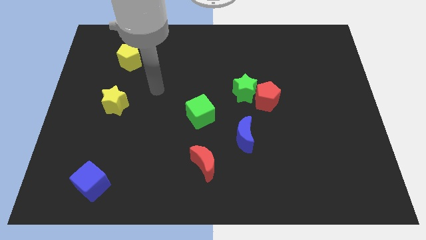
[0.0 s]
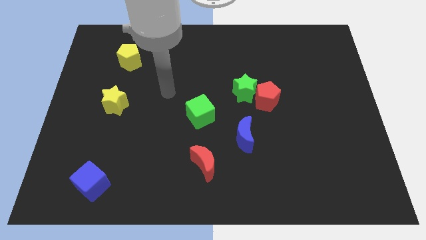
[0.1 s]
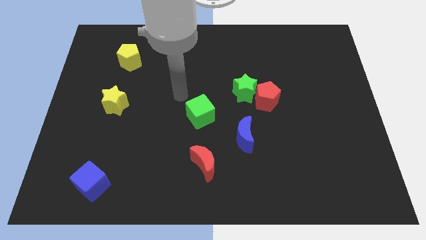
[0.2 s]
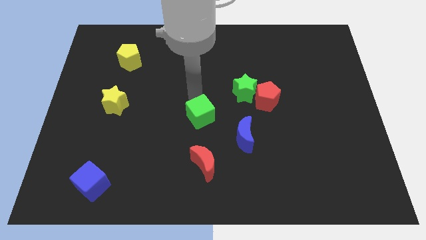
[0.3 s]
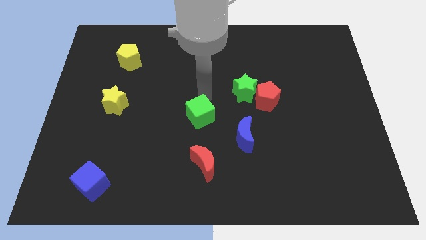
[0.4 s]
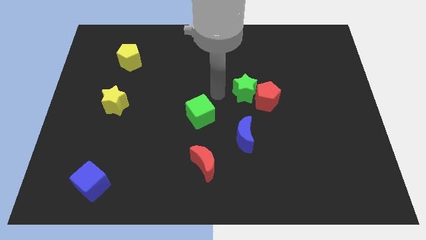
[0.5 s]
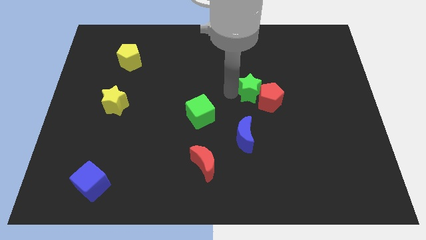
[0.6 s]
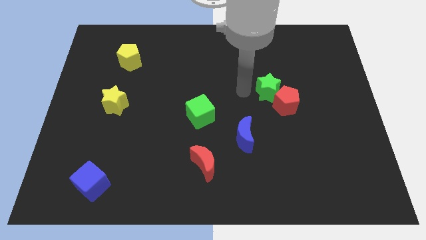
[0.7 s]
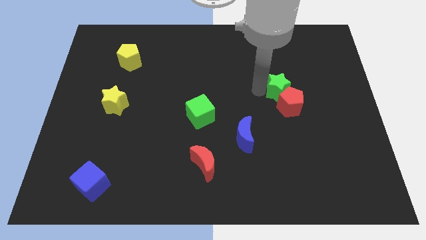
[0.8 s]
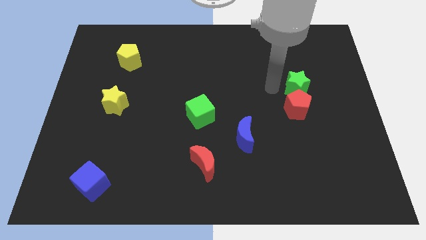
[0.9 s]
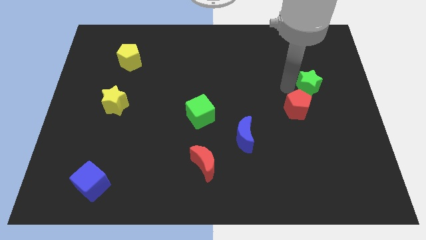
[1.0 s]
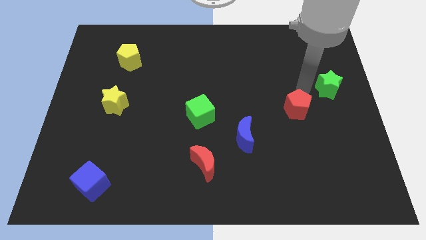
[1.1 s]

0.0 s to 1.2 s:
pull the red pentagon apart from the green star

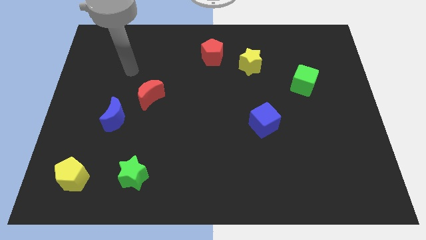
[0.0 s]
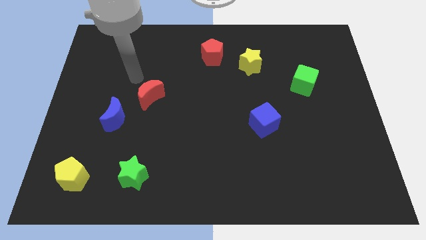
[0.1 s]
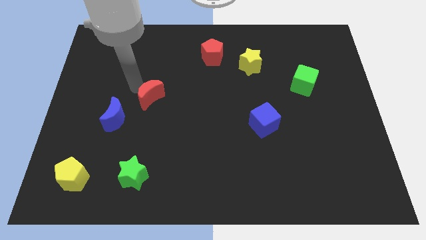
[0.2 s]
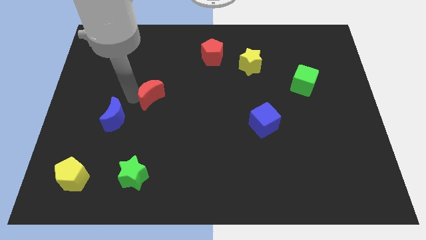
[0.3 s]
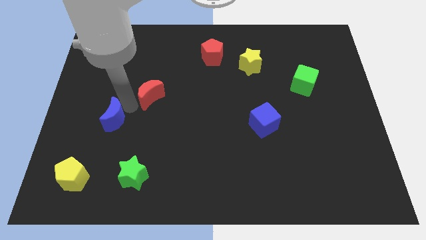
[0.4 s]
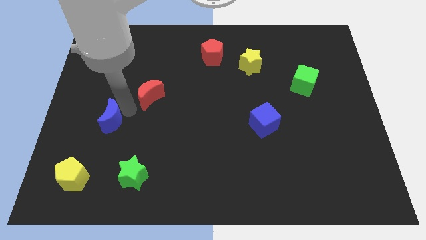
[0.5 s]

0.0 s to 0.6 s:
move the red moon away from the blue moon

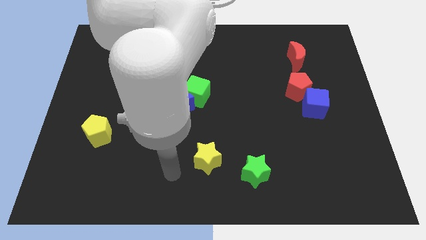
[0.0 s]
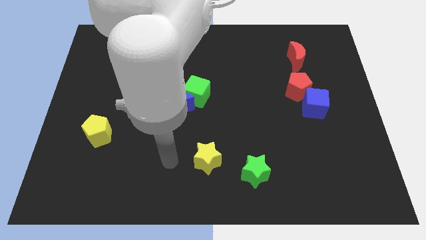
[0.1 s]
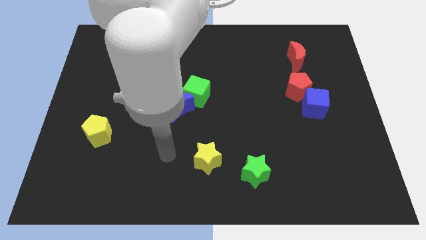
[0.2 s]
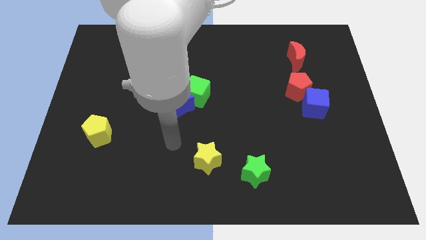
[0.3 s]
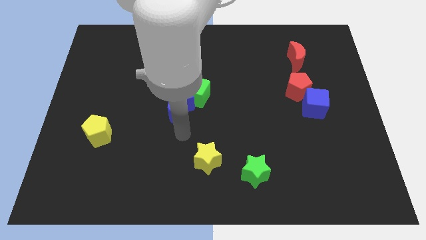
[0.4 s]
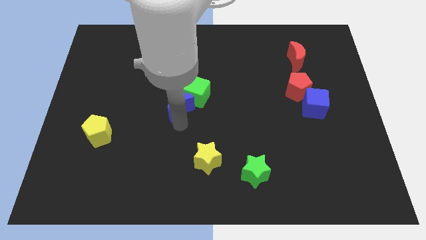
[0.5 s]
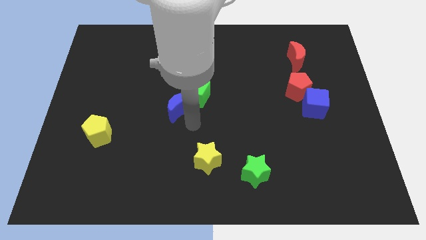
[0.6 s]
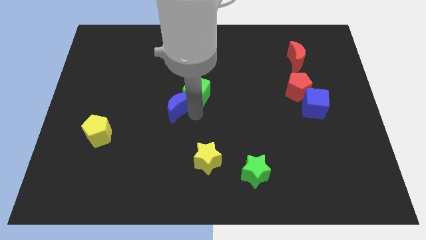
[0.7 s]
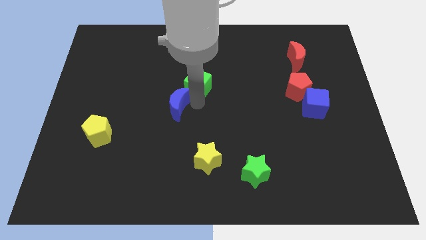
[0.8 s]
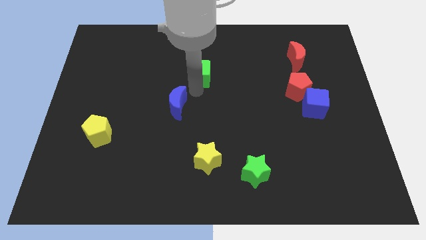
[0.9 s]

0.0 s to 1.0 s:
move the blue moon away from the green cube

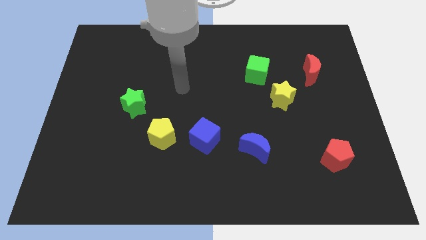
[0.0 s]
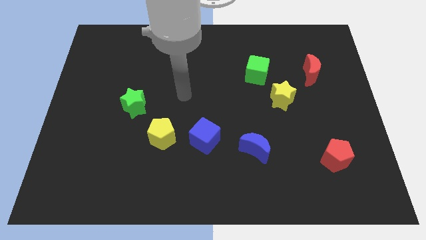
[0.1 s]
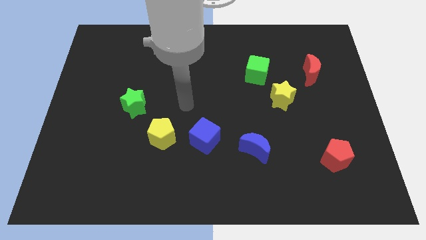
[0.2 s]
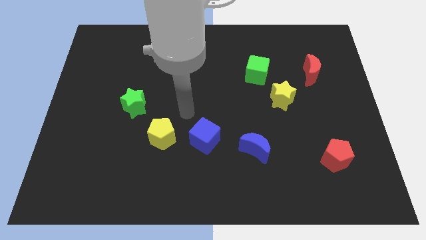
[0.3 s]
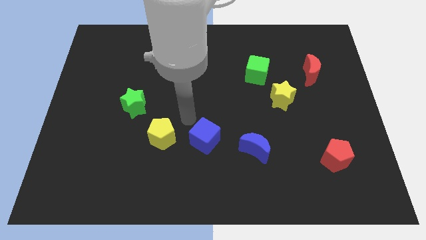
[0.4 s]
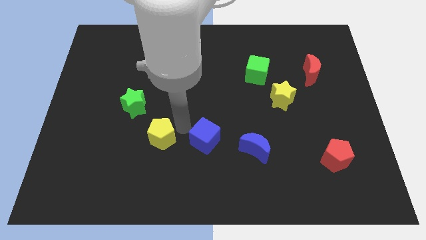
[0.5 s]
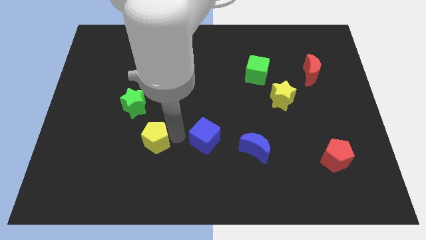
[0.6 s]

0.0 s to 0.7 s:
separate the blue cube from the yellow pentagon

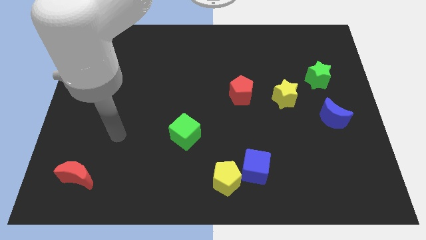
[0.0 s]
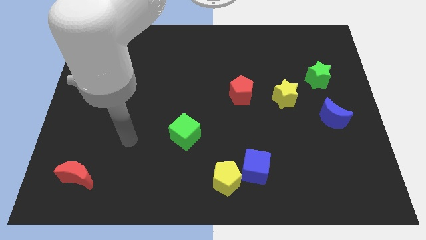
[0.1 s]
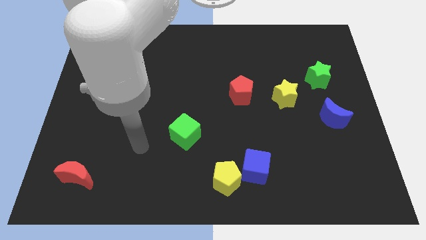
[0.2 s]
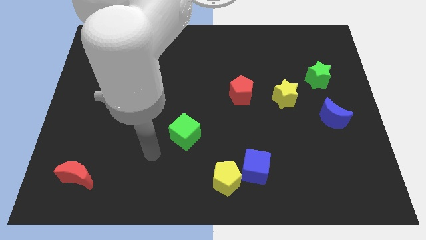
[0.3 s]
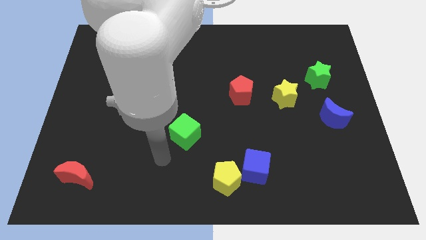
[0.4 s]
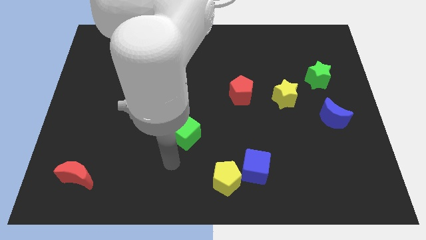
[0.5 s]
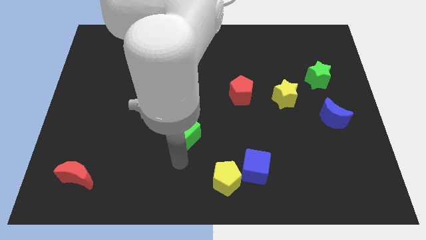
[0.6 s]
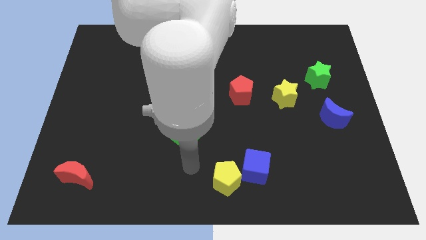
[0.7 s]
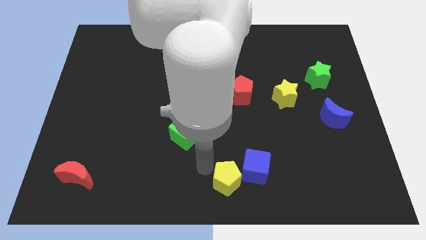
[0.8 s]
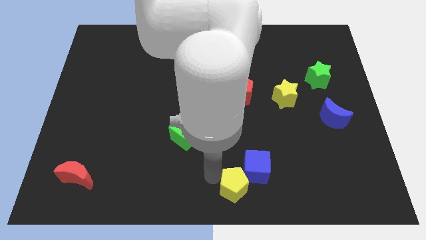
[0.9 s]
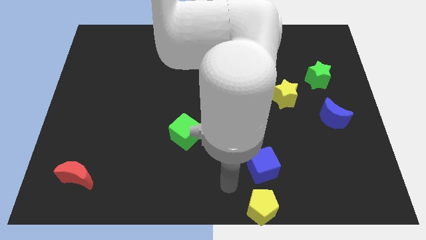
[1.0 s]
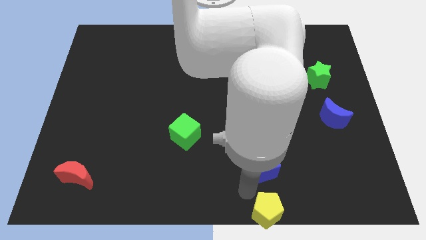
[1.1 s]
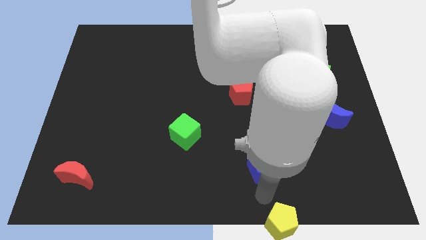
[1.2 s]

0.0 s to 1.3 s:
move the blue cube away from the yellow pentagon

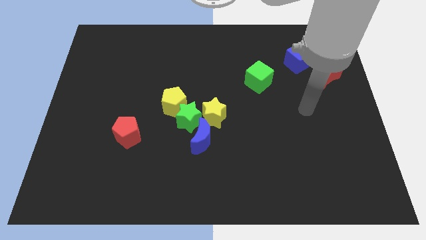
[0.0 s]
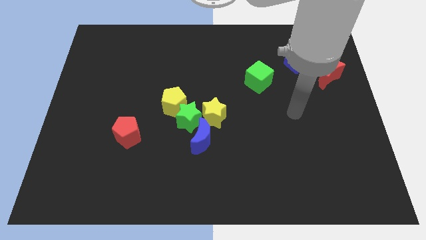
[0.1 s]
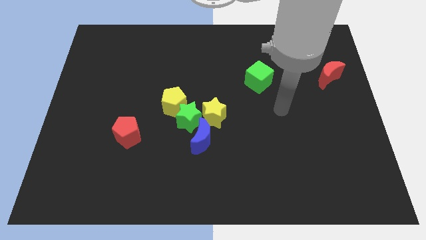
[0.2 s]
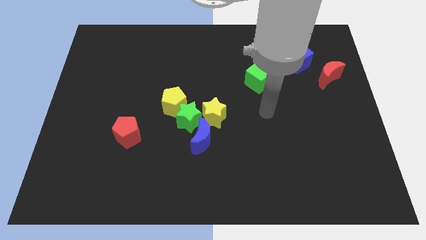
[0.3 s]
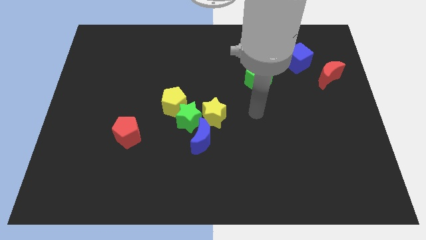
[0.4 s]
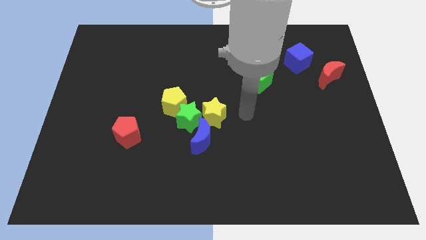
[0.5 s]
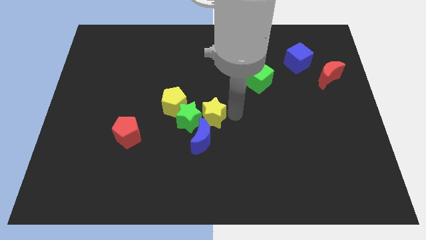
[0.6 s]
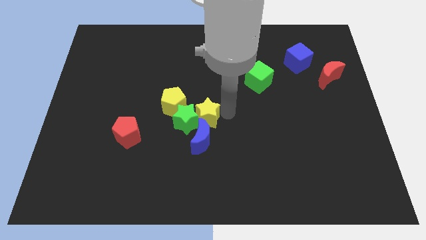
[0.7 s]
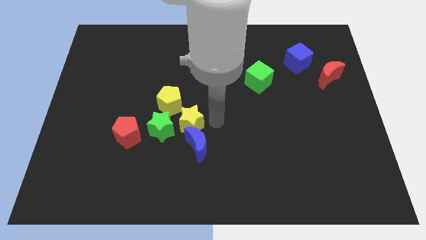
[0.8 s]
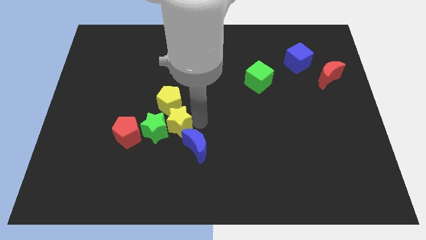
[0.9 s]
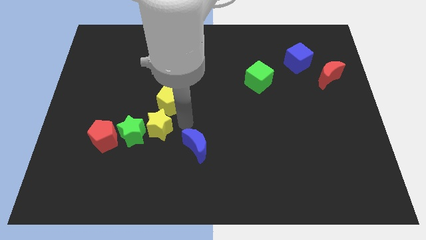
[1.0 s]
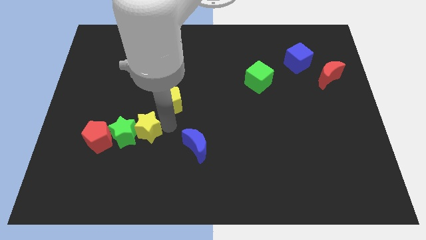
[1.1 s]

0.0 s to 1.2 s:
pull the green star apart from the yellow pentagon, yellow star, and blue moon

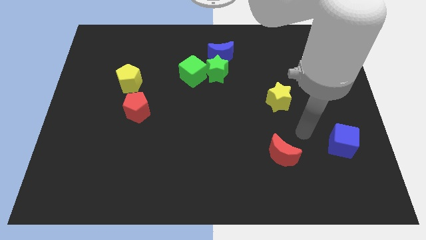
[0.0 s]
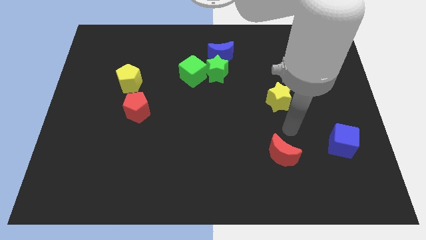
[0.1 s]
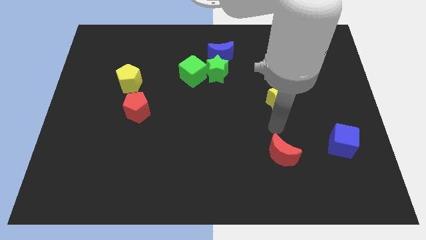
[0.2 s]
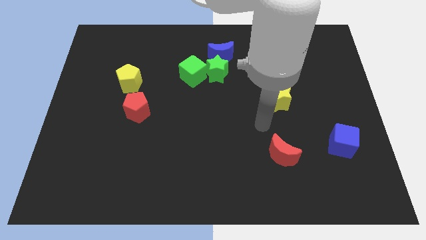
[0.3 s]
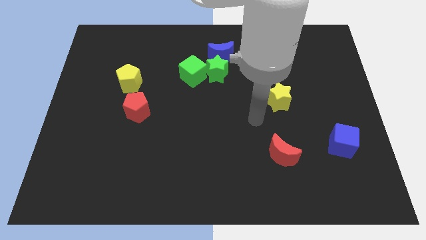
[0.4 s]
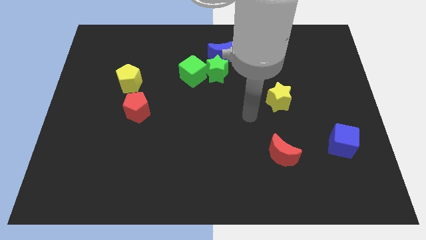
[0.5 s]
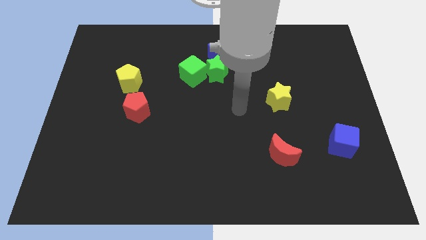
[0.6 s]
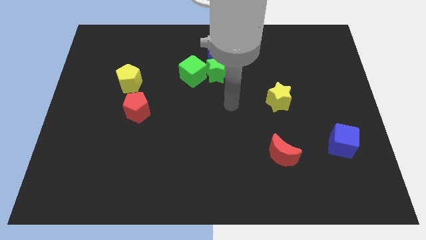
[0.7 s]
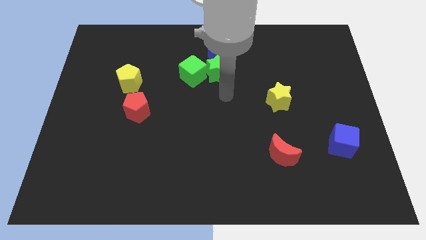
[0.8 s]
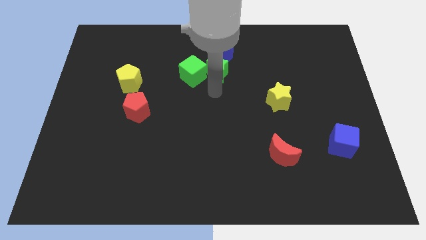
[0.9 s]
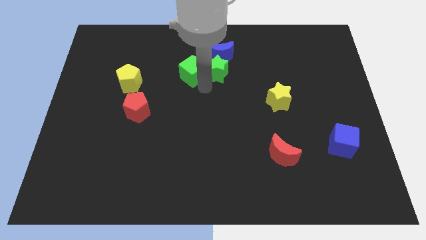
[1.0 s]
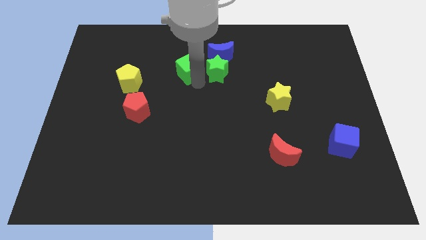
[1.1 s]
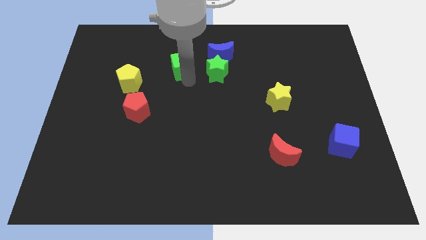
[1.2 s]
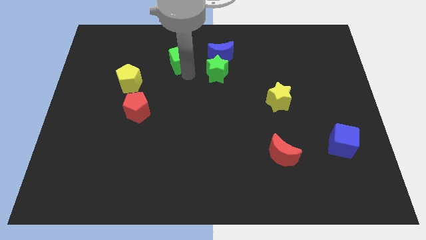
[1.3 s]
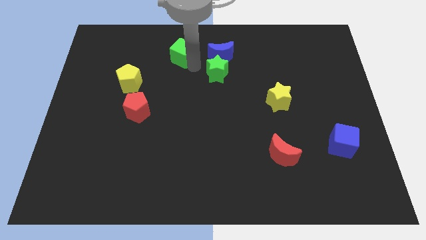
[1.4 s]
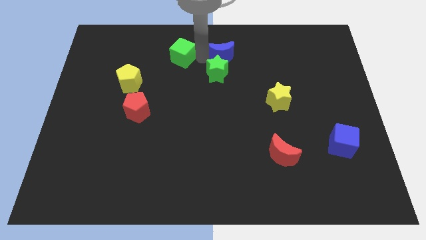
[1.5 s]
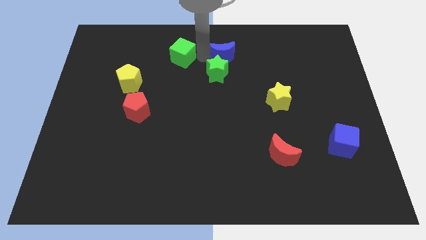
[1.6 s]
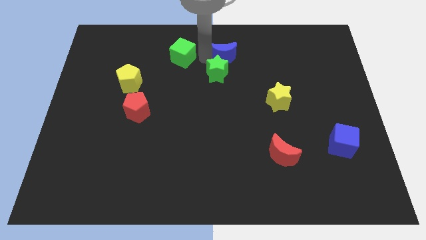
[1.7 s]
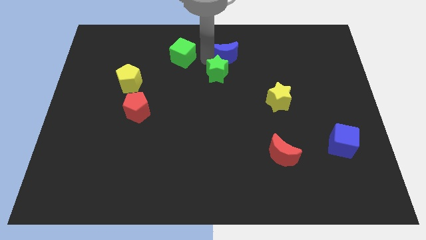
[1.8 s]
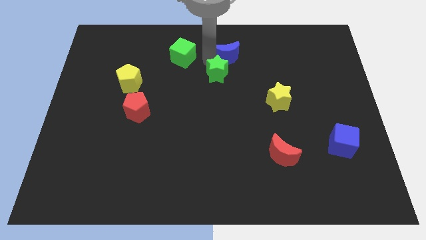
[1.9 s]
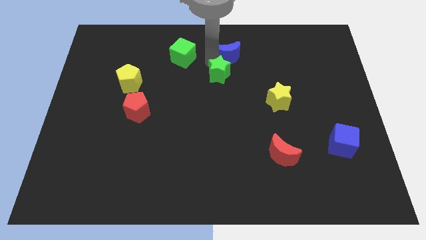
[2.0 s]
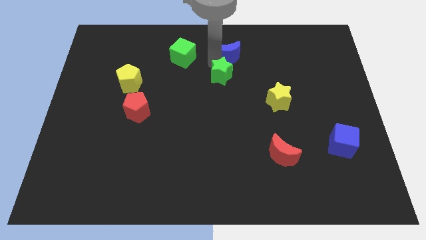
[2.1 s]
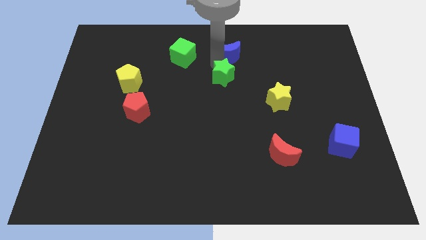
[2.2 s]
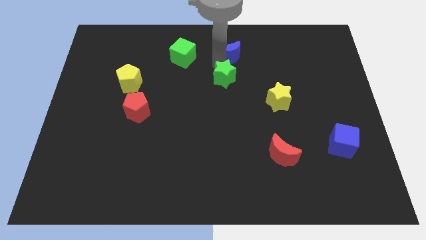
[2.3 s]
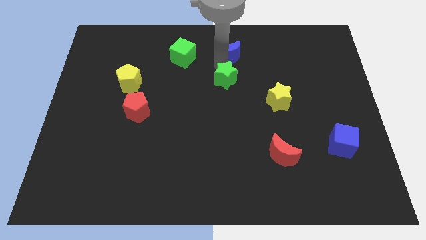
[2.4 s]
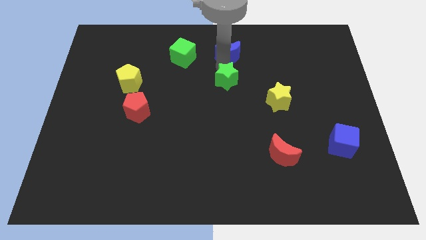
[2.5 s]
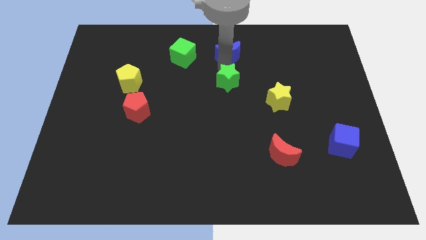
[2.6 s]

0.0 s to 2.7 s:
separate the green star from the green cube and blue moon

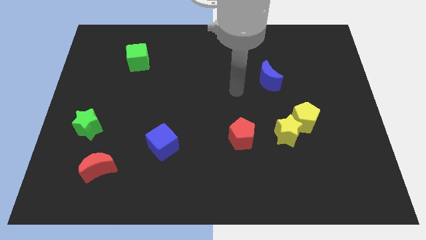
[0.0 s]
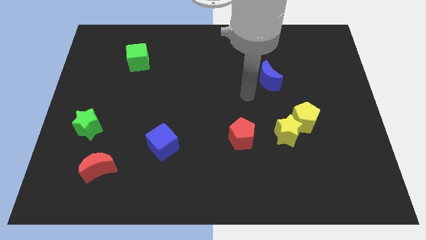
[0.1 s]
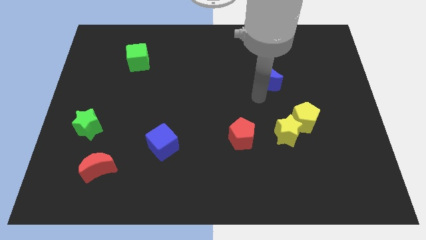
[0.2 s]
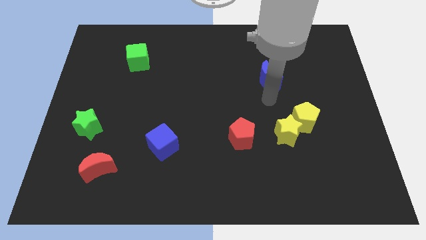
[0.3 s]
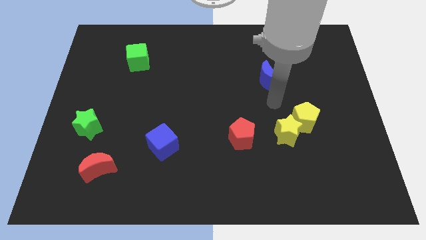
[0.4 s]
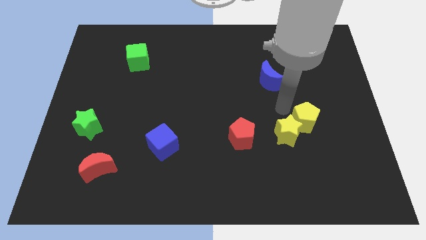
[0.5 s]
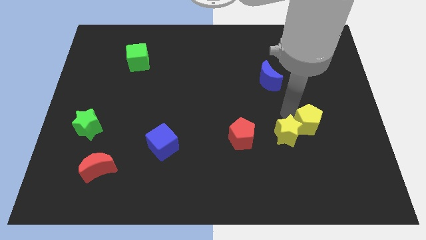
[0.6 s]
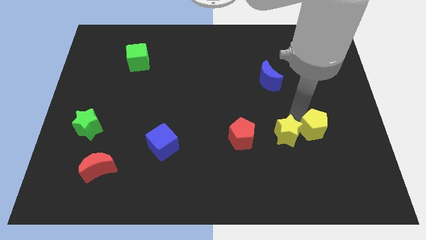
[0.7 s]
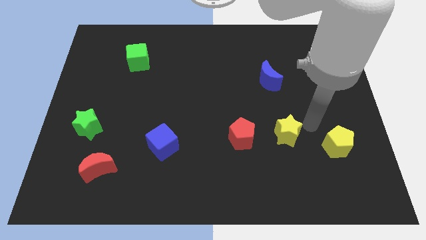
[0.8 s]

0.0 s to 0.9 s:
separate the yellow star from the yellow pentagon
